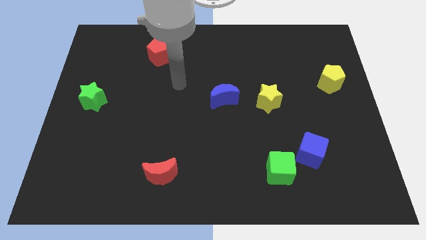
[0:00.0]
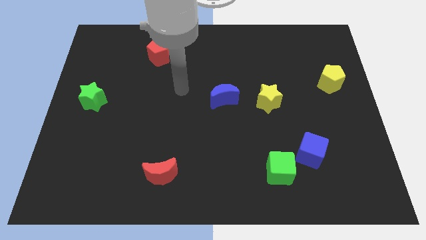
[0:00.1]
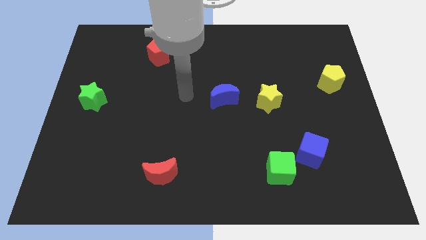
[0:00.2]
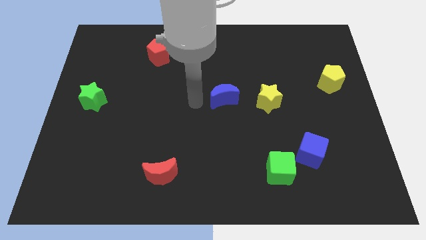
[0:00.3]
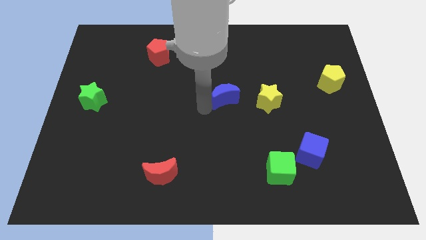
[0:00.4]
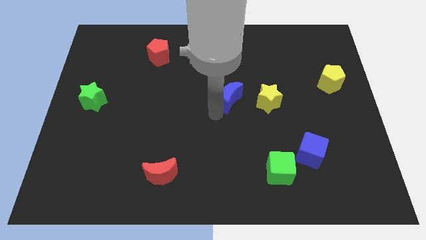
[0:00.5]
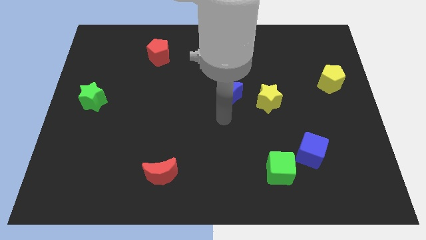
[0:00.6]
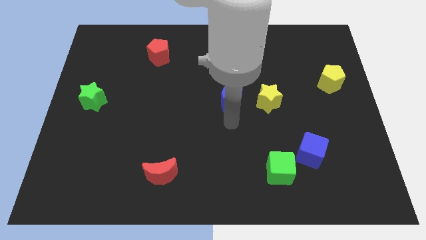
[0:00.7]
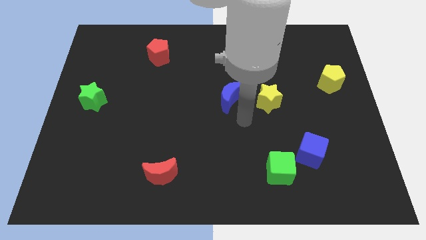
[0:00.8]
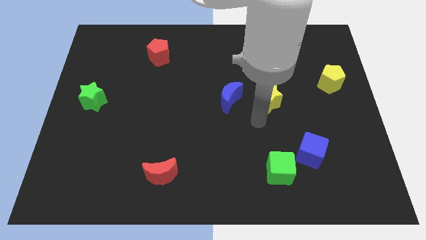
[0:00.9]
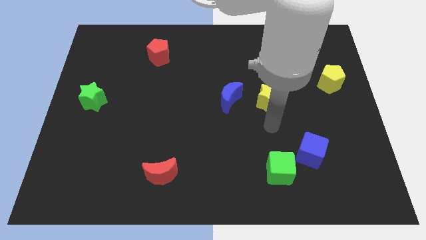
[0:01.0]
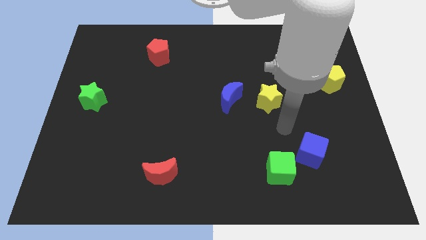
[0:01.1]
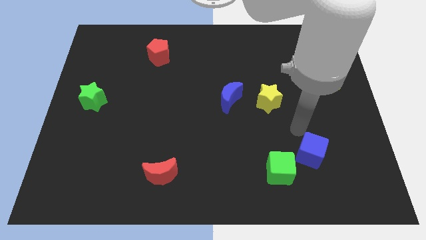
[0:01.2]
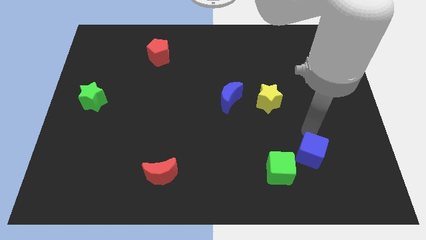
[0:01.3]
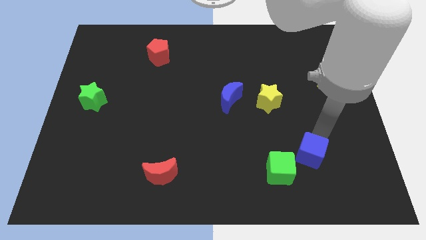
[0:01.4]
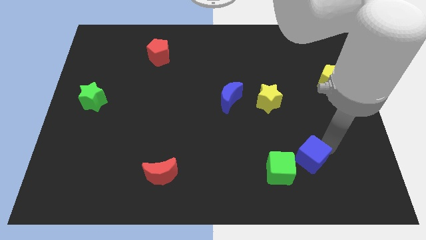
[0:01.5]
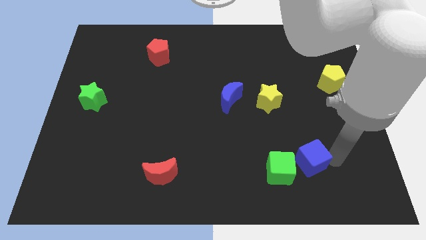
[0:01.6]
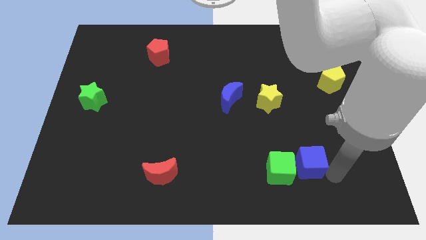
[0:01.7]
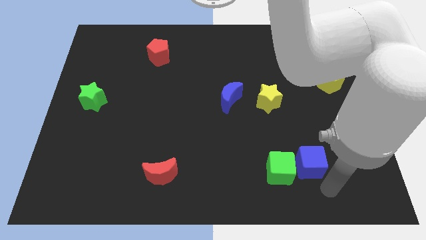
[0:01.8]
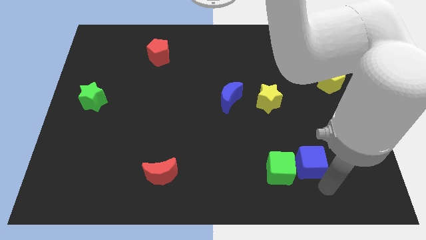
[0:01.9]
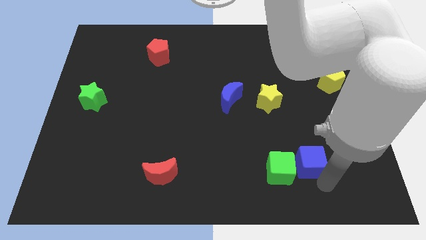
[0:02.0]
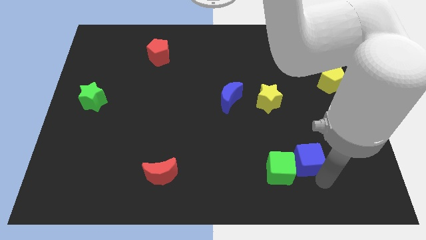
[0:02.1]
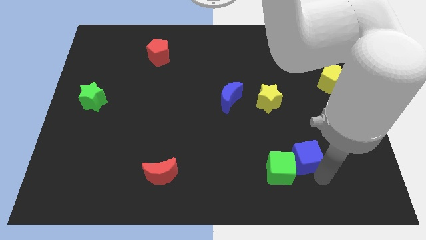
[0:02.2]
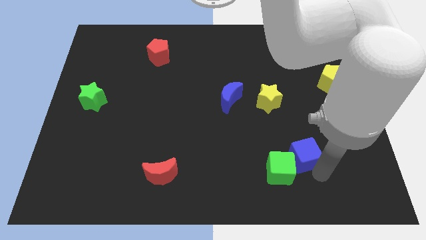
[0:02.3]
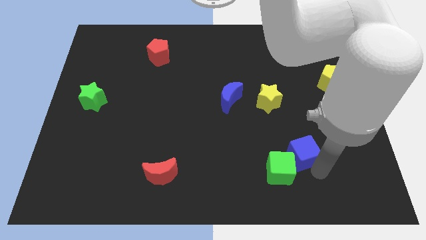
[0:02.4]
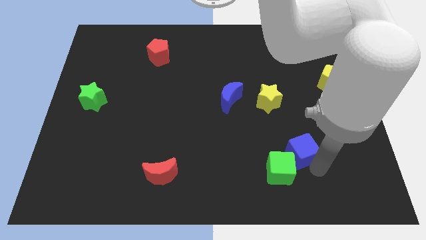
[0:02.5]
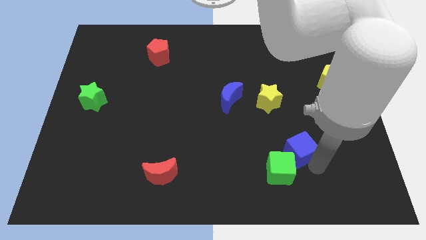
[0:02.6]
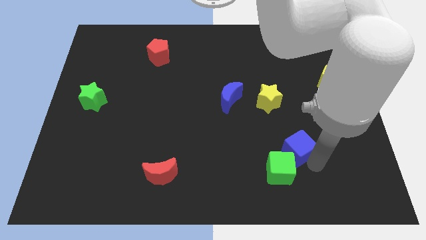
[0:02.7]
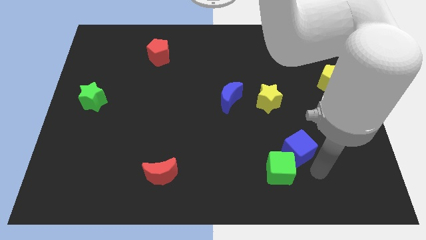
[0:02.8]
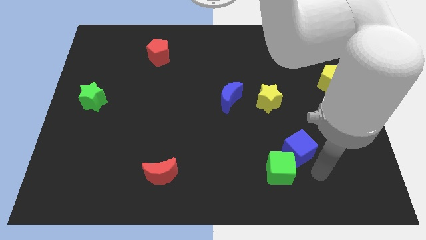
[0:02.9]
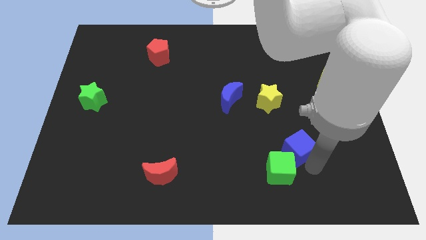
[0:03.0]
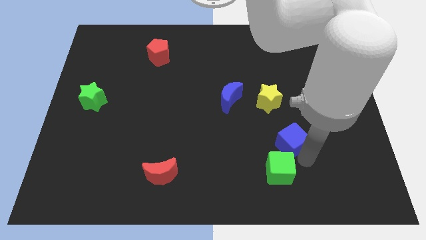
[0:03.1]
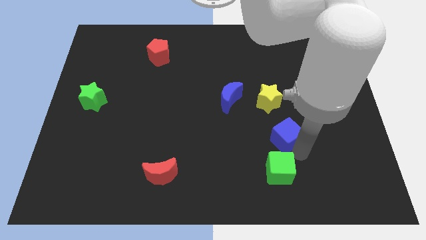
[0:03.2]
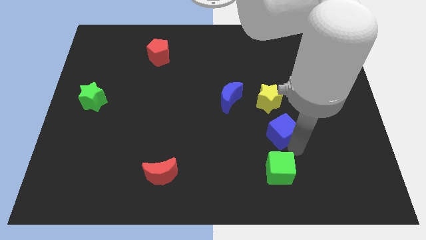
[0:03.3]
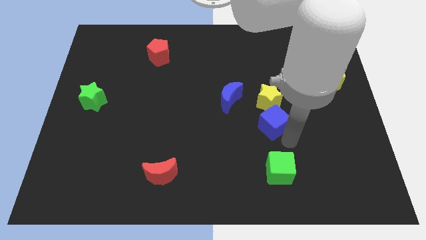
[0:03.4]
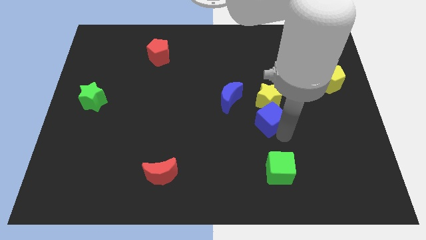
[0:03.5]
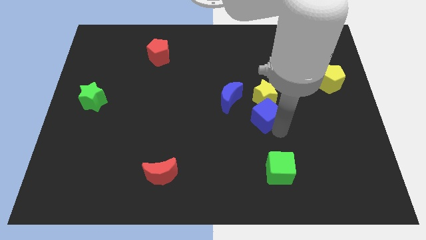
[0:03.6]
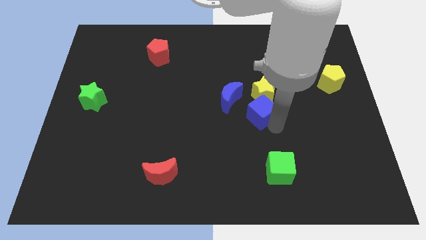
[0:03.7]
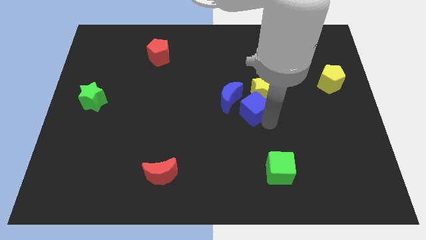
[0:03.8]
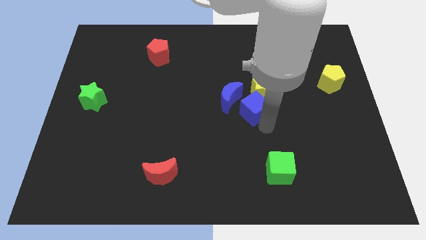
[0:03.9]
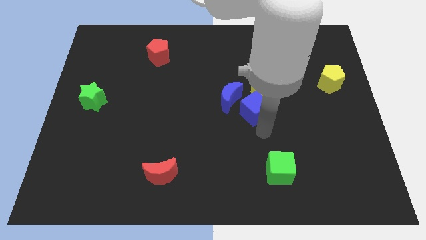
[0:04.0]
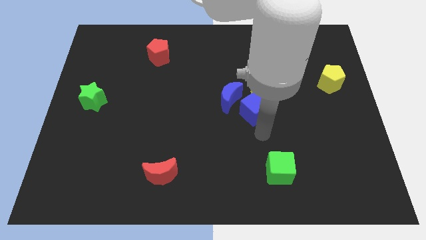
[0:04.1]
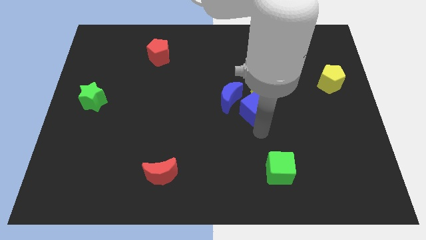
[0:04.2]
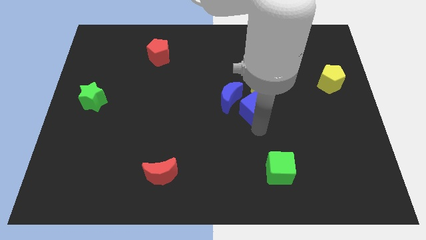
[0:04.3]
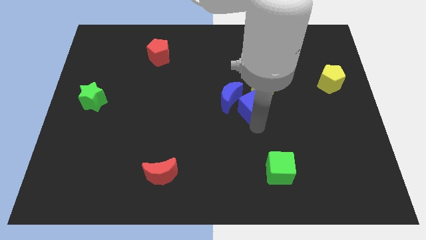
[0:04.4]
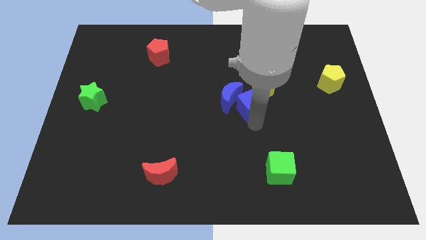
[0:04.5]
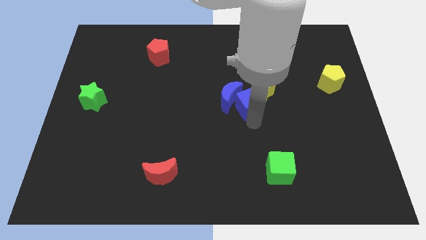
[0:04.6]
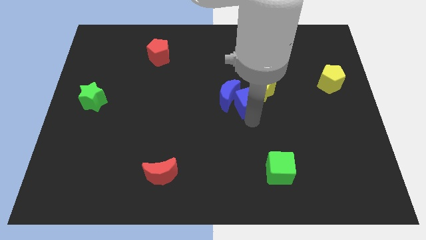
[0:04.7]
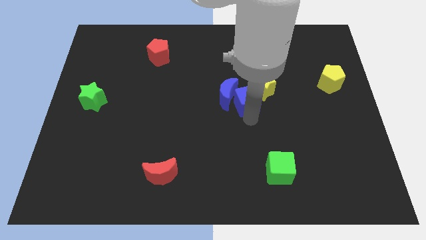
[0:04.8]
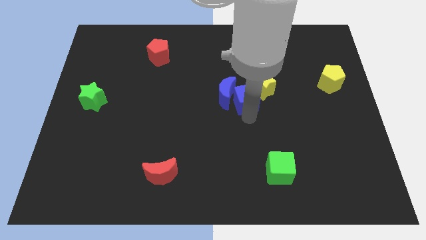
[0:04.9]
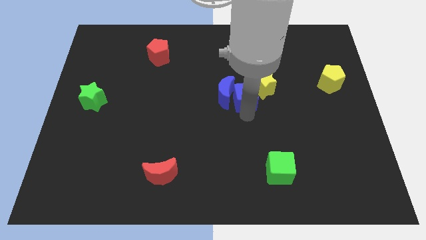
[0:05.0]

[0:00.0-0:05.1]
slide the blue cube to the top right of the blue moon

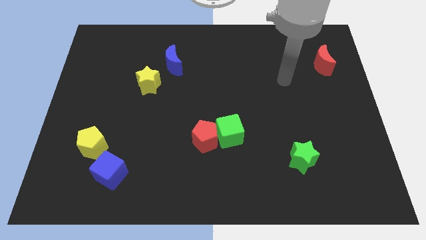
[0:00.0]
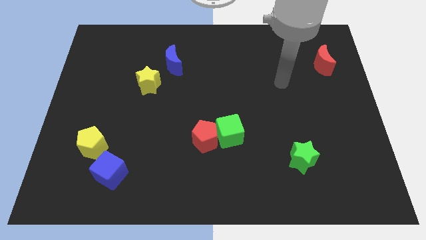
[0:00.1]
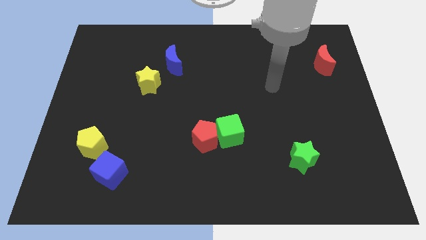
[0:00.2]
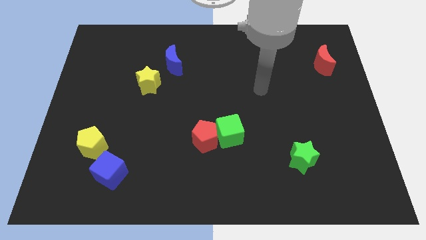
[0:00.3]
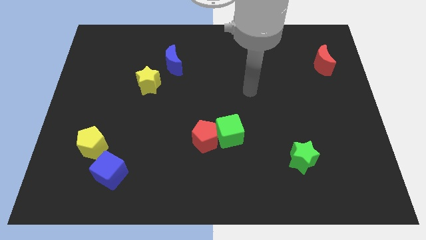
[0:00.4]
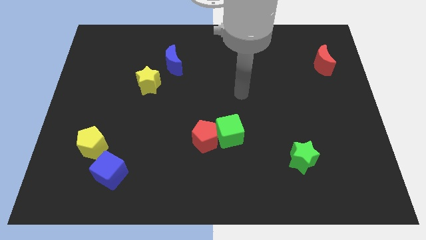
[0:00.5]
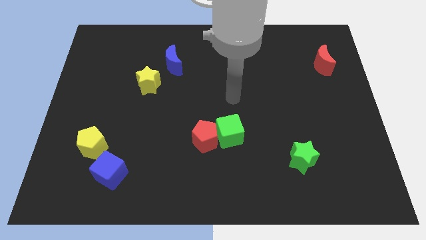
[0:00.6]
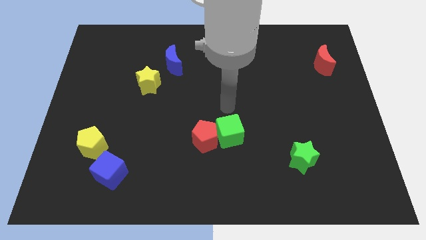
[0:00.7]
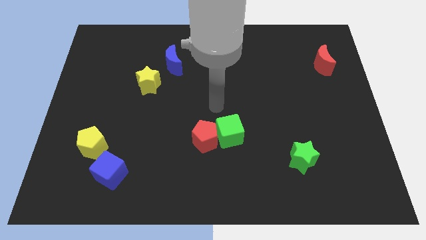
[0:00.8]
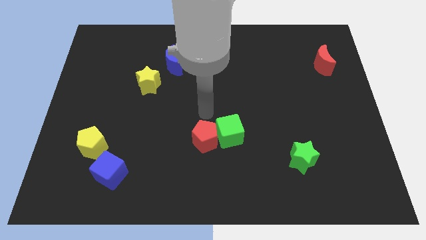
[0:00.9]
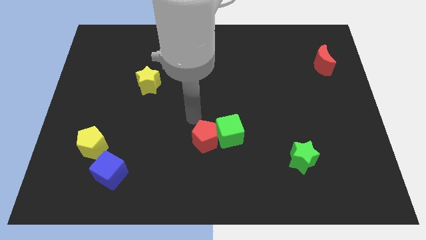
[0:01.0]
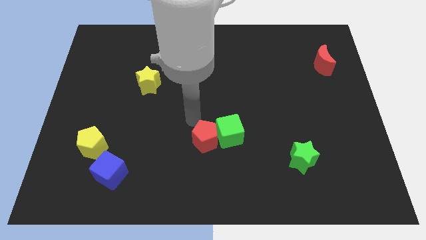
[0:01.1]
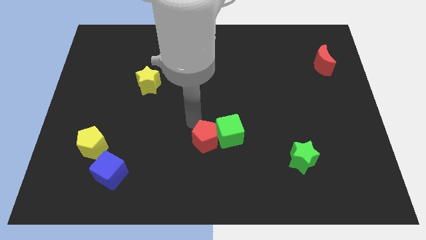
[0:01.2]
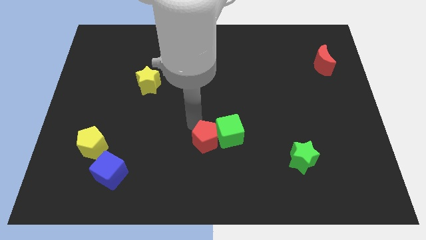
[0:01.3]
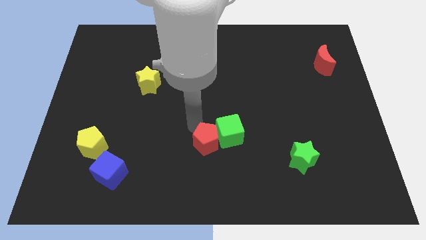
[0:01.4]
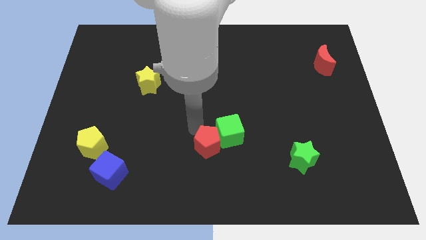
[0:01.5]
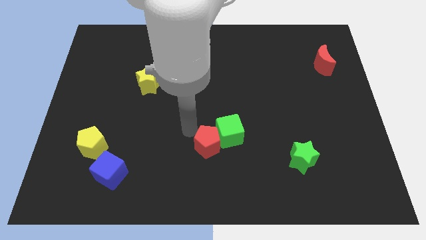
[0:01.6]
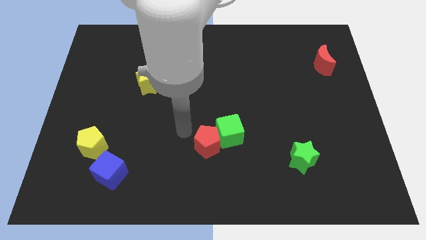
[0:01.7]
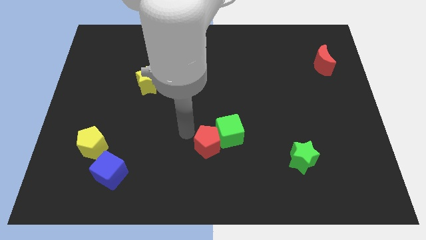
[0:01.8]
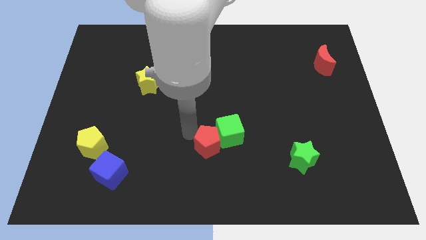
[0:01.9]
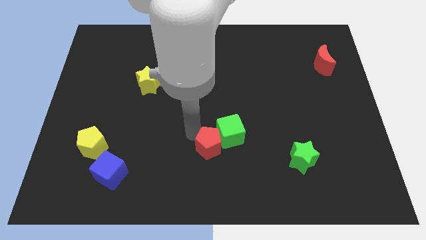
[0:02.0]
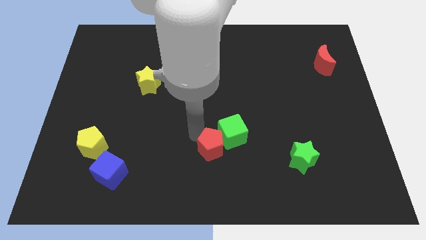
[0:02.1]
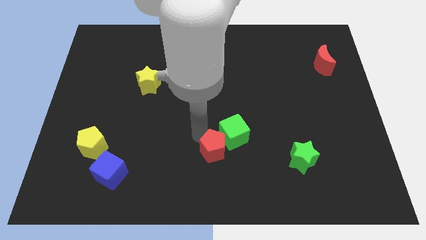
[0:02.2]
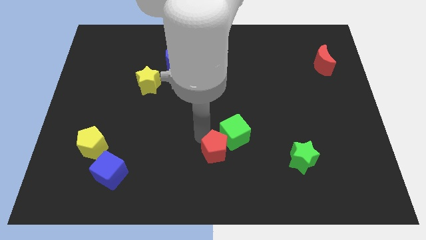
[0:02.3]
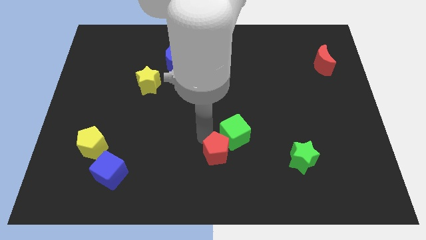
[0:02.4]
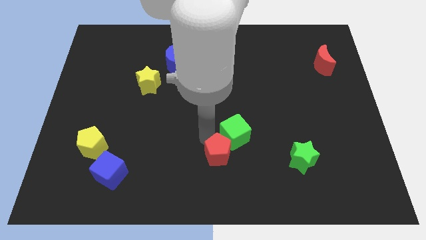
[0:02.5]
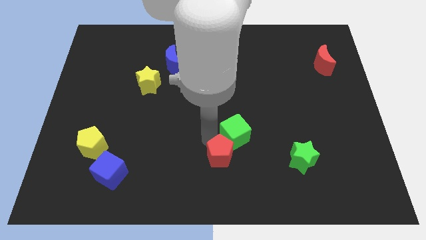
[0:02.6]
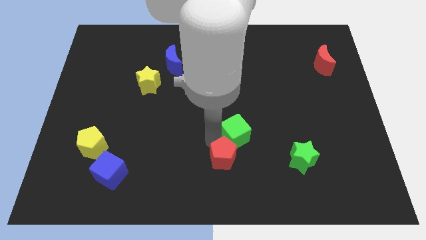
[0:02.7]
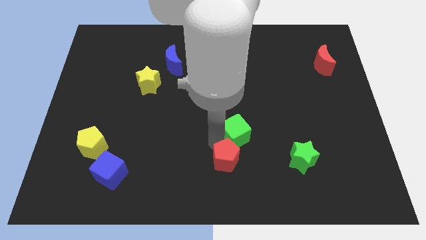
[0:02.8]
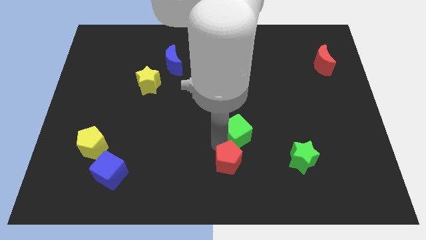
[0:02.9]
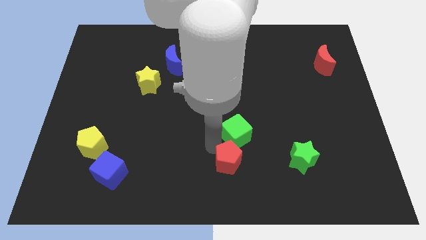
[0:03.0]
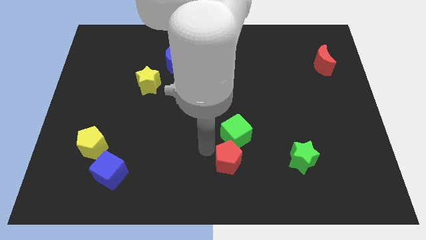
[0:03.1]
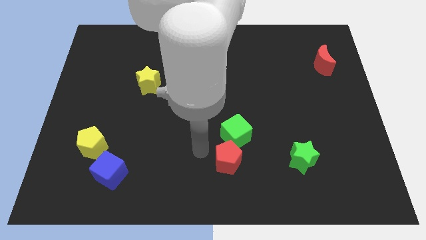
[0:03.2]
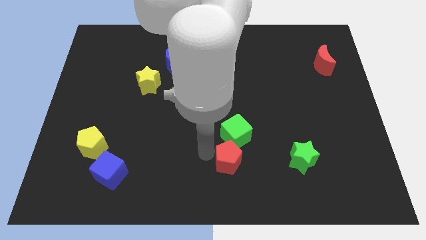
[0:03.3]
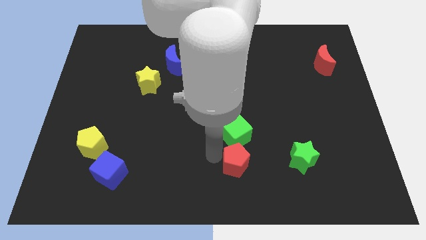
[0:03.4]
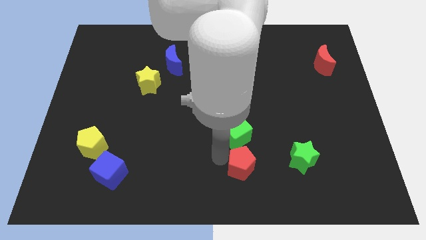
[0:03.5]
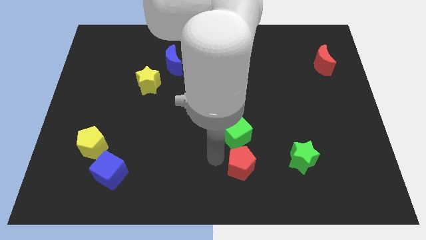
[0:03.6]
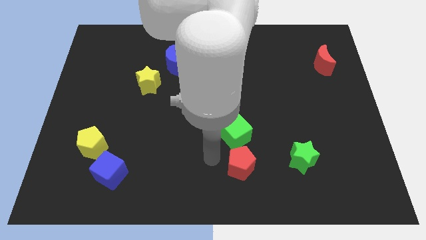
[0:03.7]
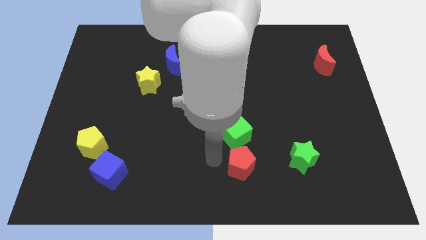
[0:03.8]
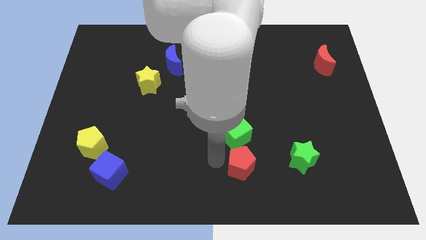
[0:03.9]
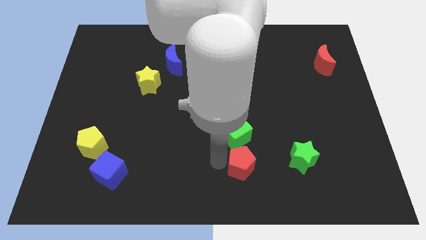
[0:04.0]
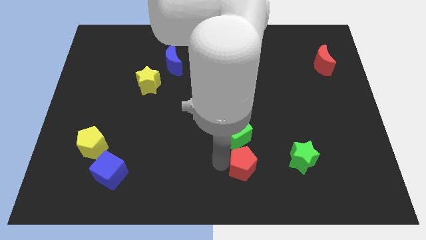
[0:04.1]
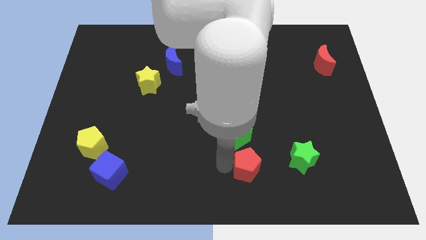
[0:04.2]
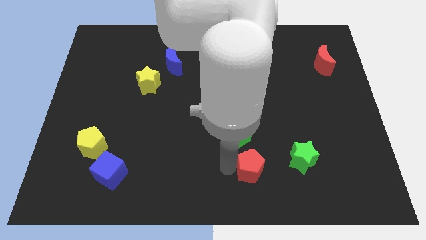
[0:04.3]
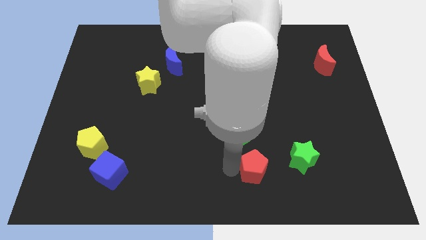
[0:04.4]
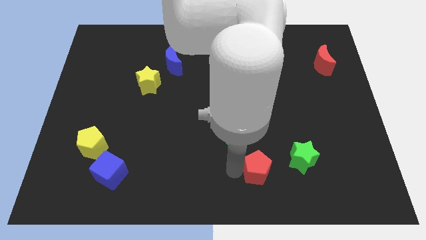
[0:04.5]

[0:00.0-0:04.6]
put the red pentagon diagonally down and to the left of the green star
